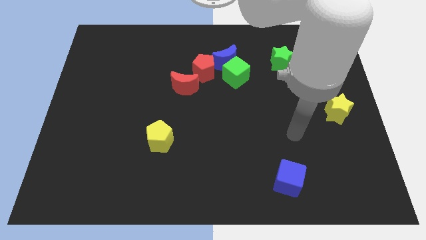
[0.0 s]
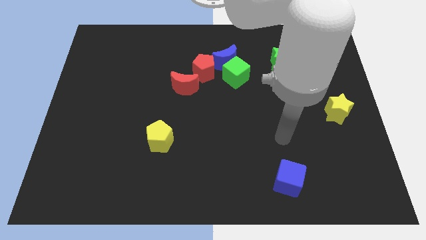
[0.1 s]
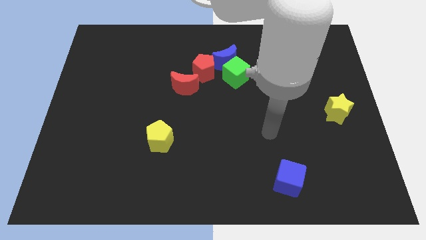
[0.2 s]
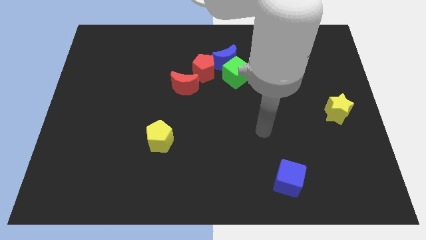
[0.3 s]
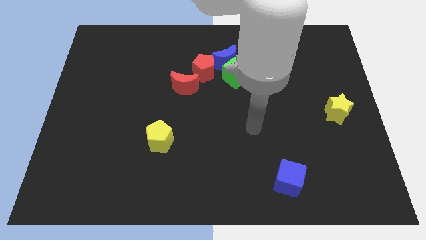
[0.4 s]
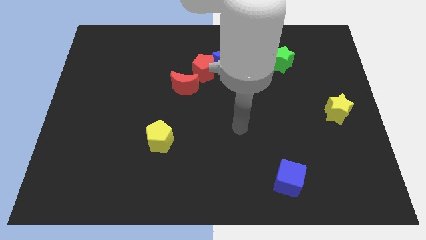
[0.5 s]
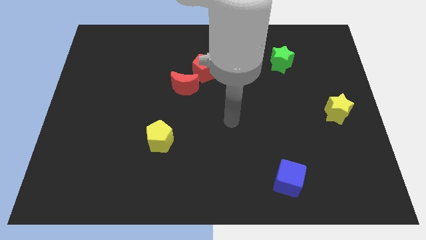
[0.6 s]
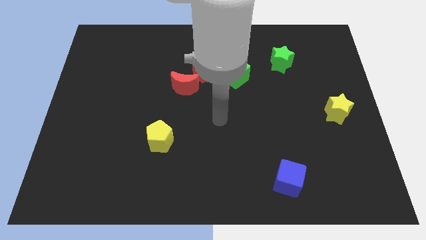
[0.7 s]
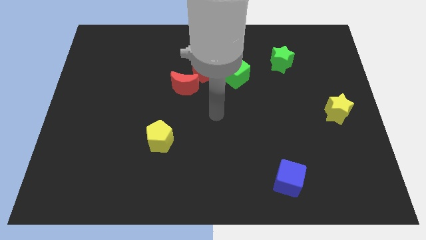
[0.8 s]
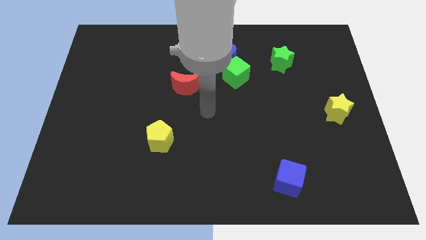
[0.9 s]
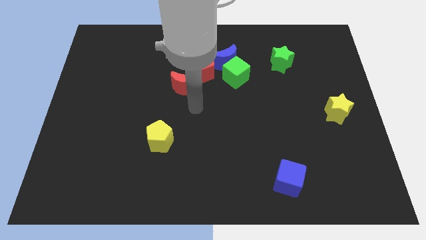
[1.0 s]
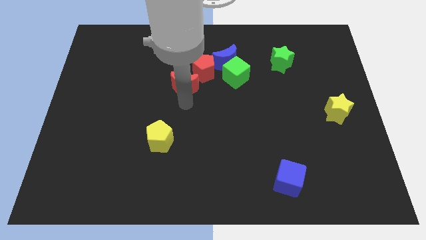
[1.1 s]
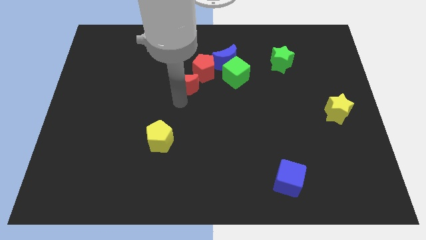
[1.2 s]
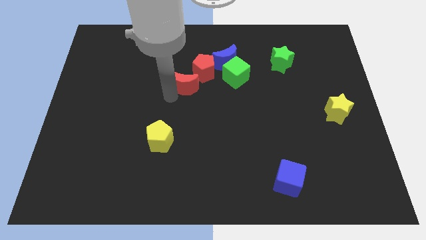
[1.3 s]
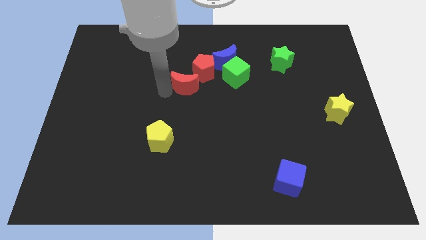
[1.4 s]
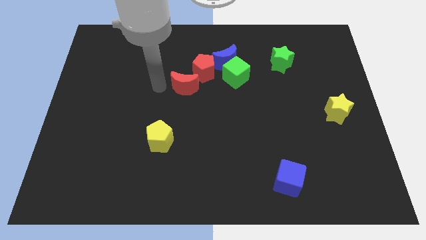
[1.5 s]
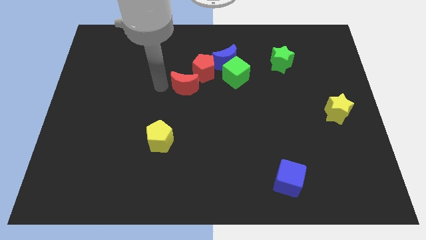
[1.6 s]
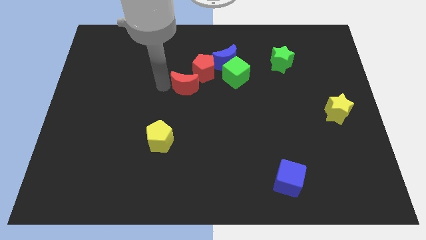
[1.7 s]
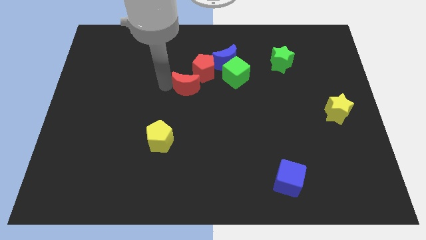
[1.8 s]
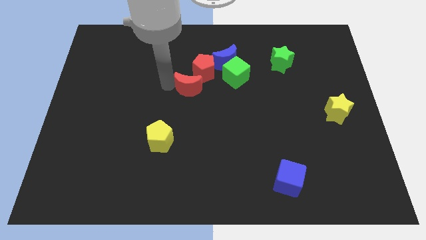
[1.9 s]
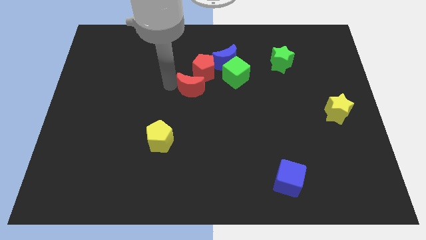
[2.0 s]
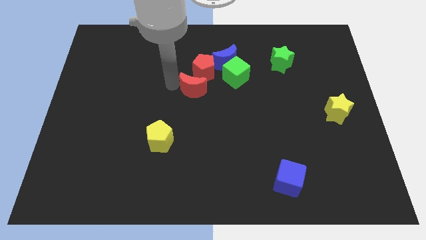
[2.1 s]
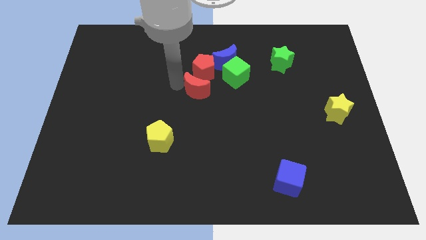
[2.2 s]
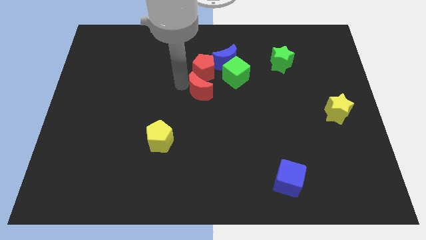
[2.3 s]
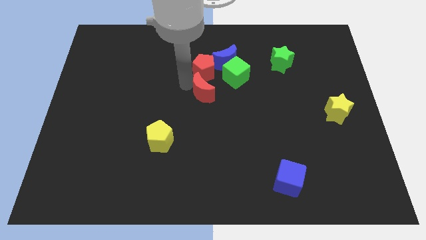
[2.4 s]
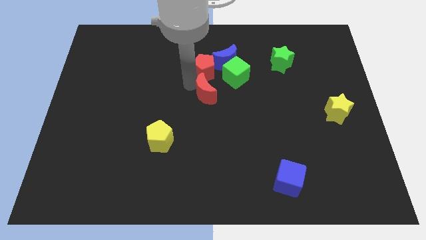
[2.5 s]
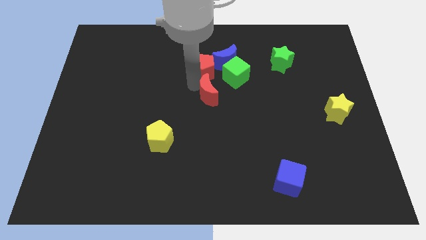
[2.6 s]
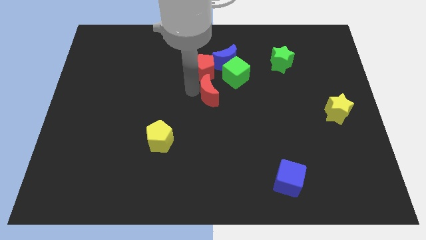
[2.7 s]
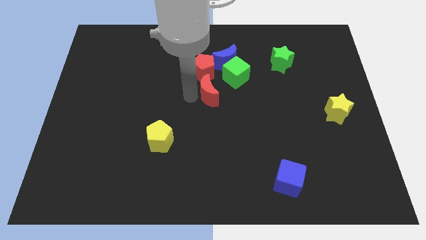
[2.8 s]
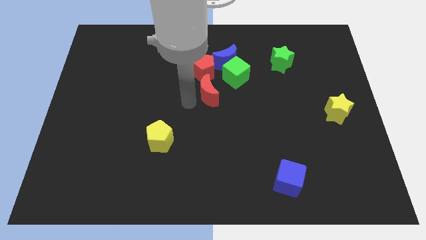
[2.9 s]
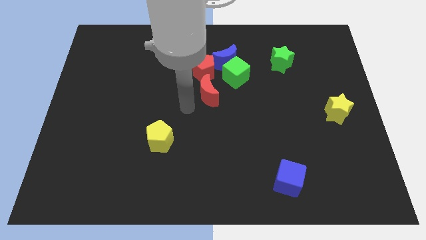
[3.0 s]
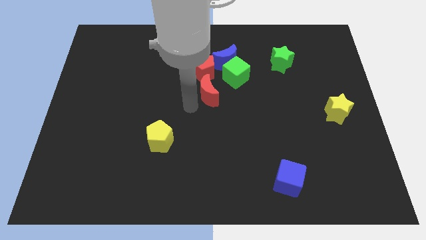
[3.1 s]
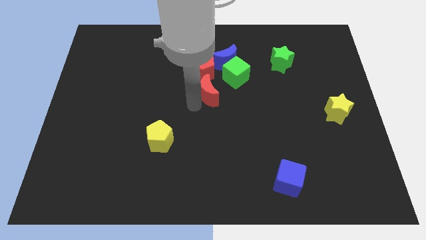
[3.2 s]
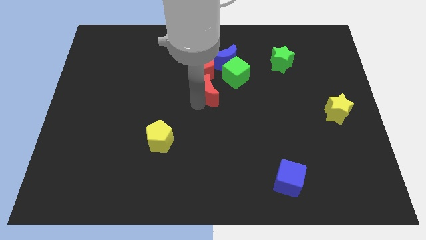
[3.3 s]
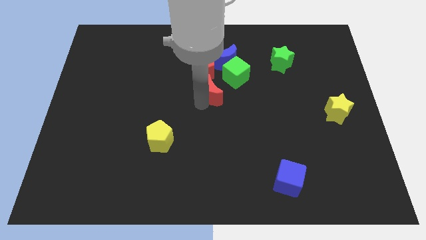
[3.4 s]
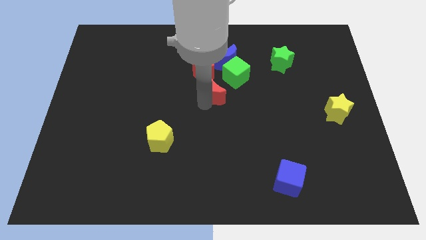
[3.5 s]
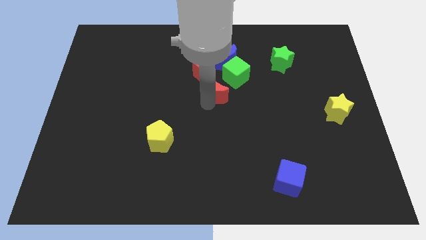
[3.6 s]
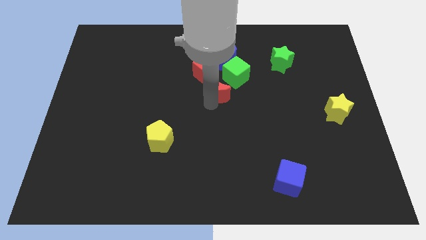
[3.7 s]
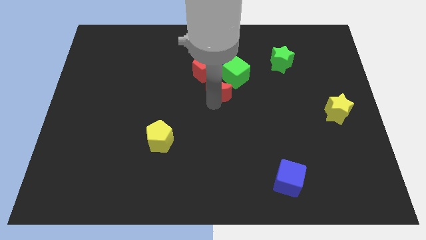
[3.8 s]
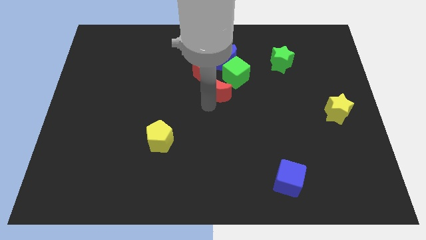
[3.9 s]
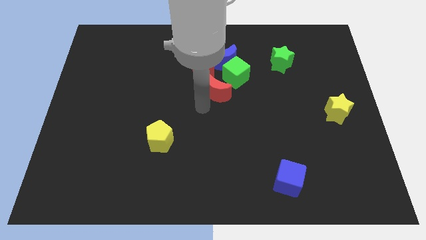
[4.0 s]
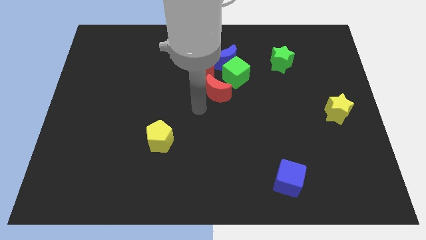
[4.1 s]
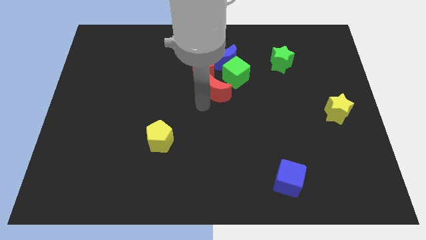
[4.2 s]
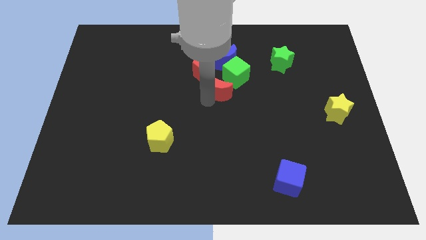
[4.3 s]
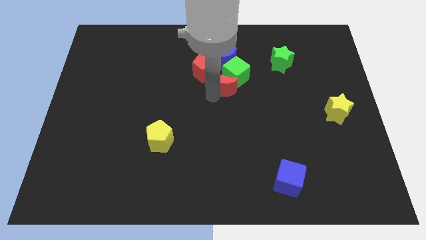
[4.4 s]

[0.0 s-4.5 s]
push the red moon to the green cube

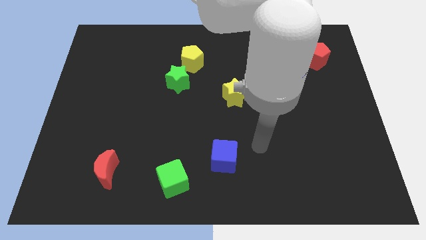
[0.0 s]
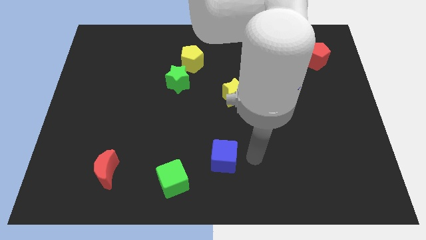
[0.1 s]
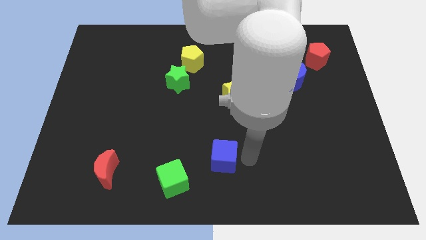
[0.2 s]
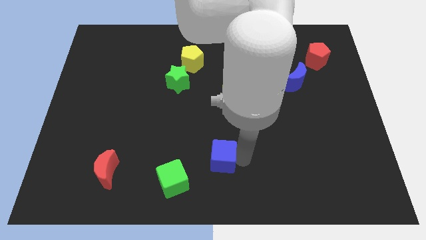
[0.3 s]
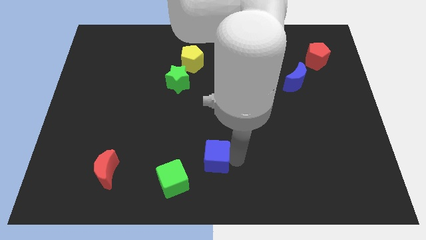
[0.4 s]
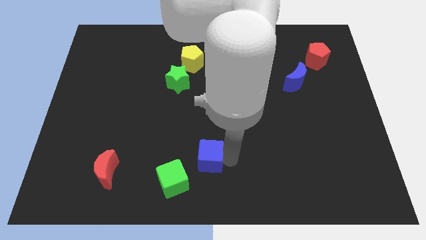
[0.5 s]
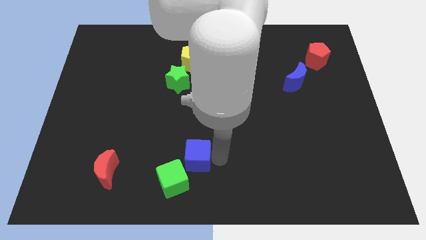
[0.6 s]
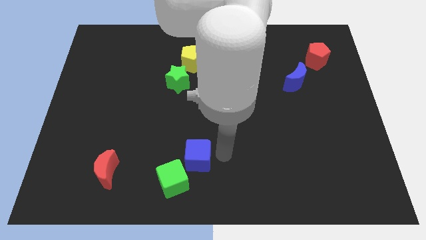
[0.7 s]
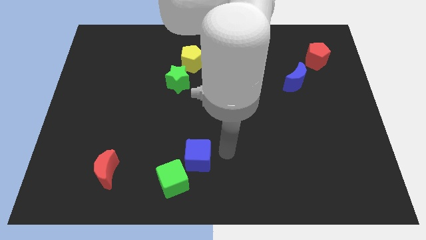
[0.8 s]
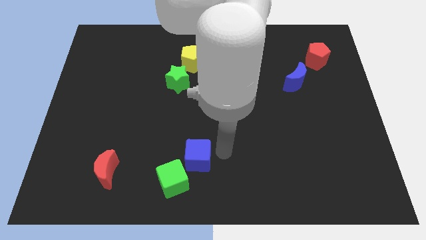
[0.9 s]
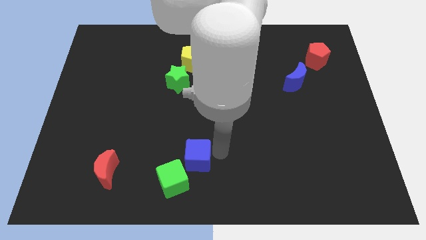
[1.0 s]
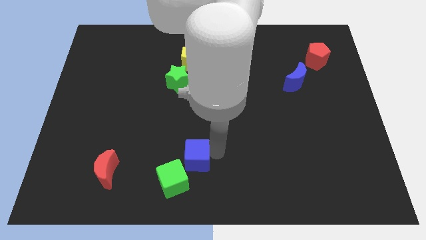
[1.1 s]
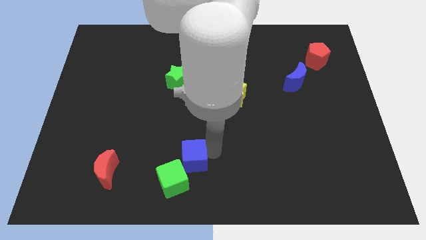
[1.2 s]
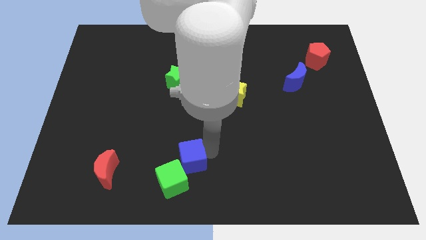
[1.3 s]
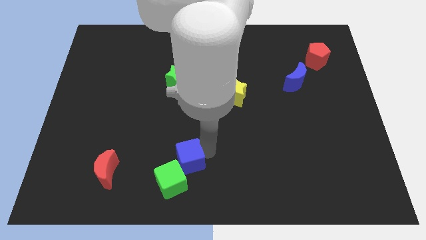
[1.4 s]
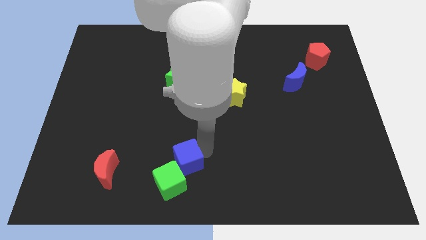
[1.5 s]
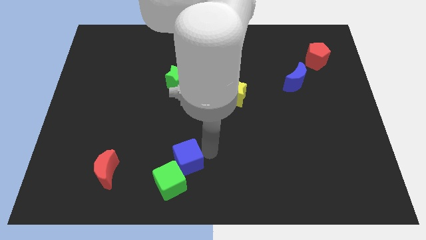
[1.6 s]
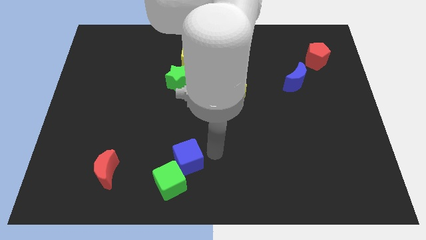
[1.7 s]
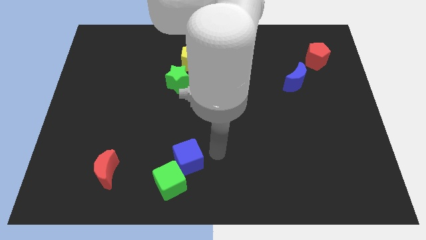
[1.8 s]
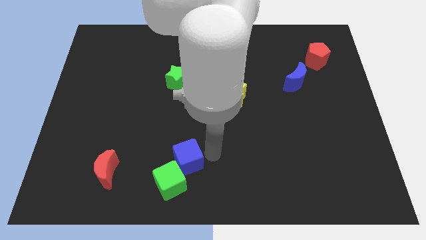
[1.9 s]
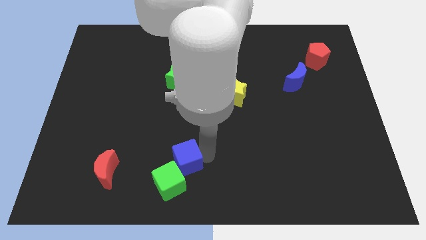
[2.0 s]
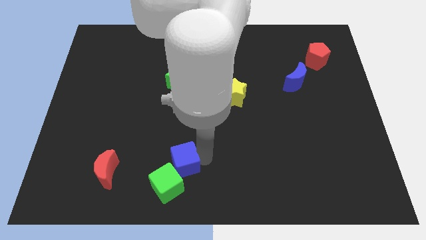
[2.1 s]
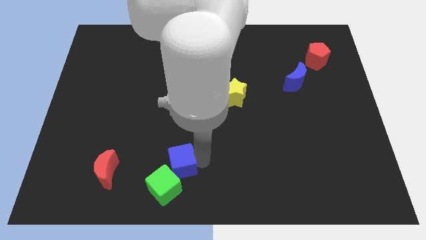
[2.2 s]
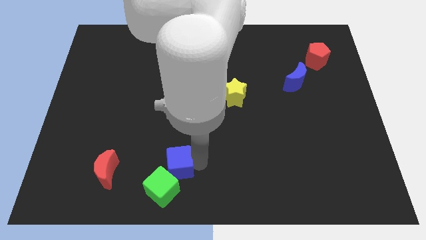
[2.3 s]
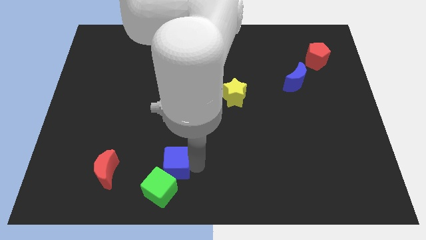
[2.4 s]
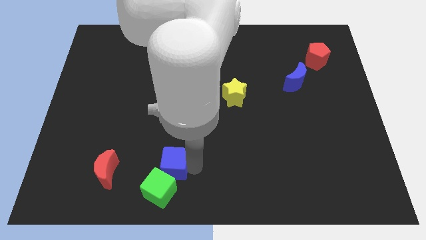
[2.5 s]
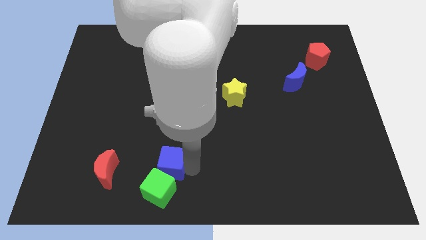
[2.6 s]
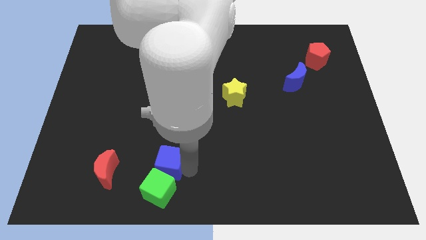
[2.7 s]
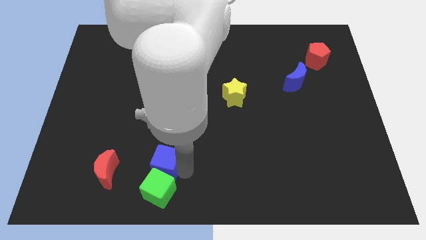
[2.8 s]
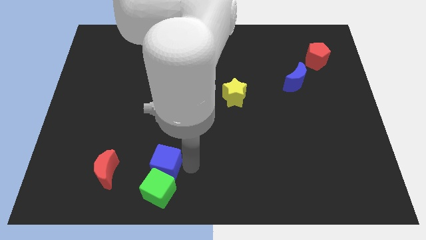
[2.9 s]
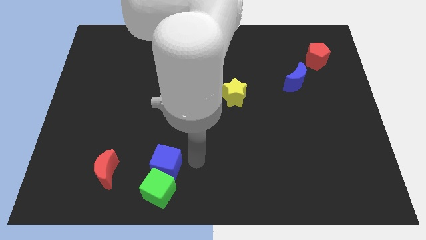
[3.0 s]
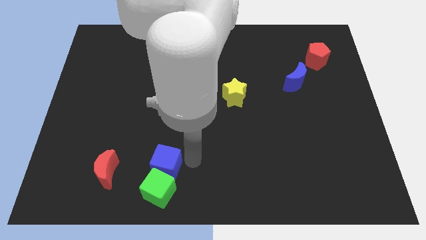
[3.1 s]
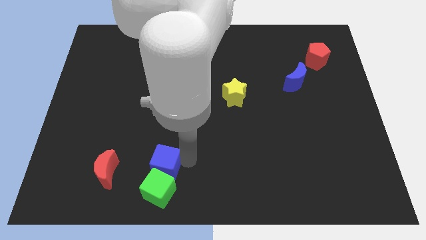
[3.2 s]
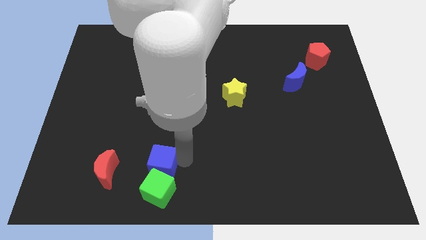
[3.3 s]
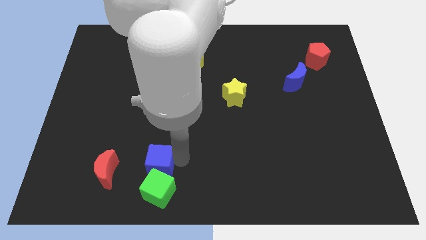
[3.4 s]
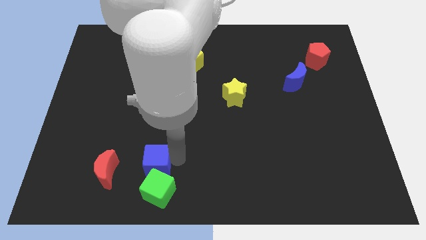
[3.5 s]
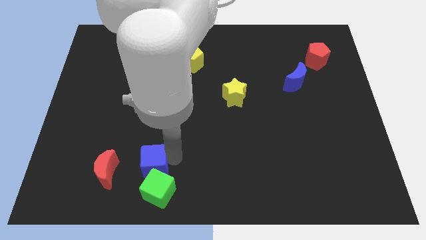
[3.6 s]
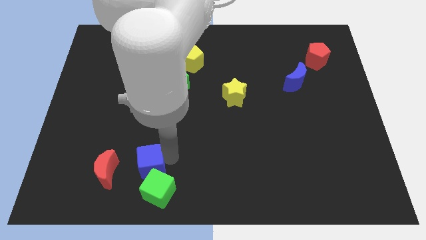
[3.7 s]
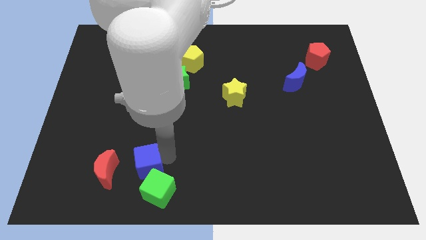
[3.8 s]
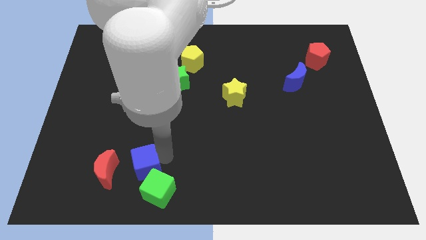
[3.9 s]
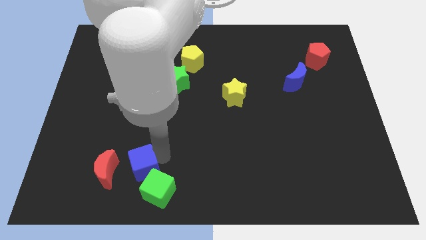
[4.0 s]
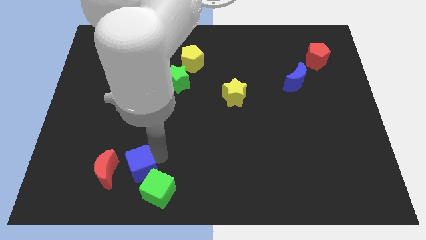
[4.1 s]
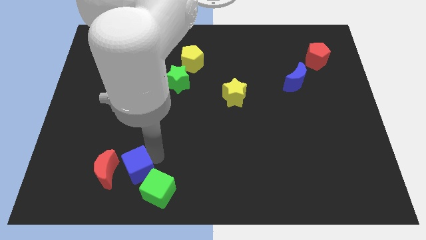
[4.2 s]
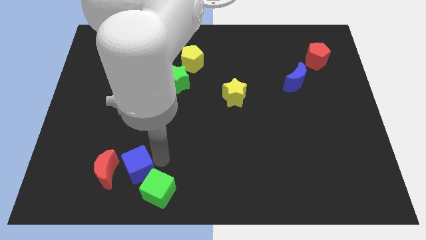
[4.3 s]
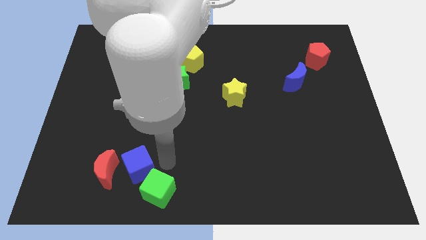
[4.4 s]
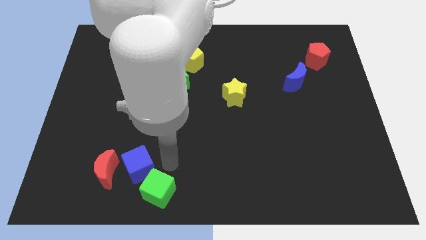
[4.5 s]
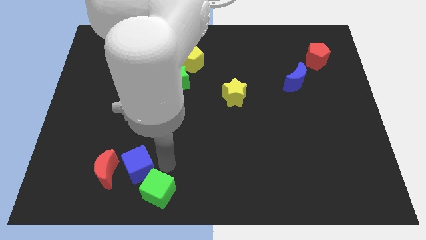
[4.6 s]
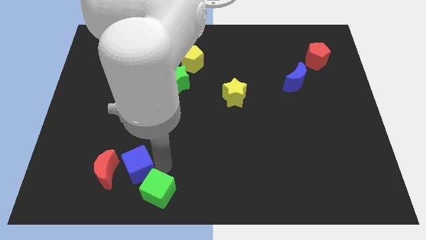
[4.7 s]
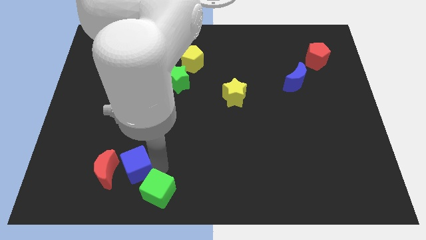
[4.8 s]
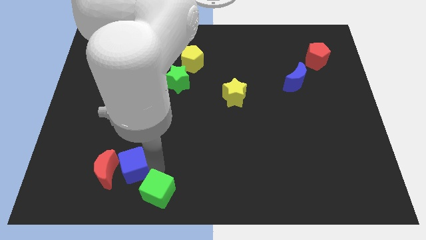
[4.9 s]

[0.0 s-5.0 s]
push the blue cube close to the red moon
